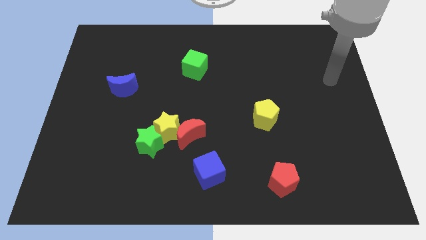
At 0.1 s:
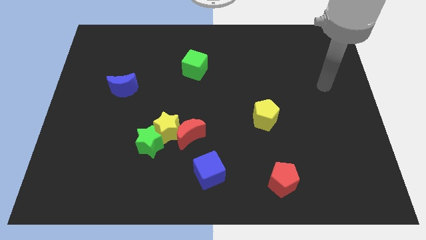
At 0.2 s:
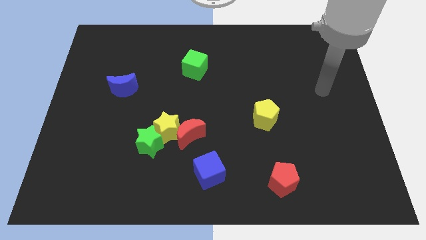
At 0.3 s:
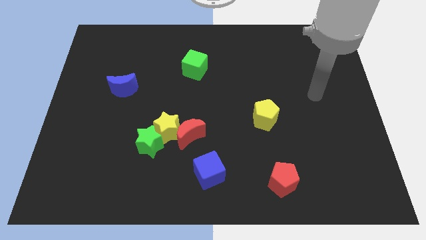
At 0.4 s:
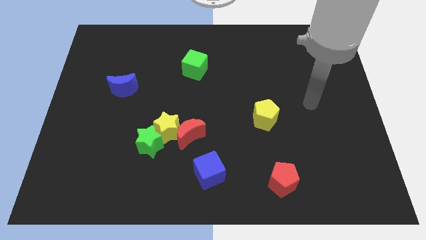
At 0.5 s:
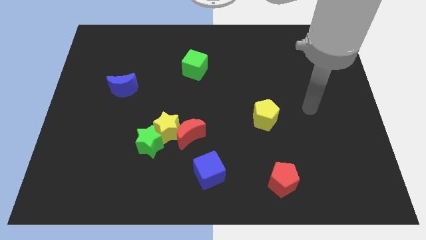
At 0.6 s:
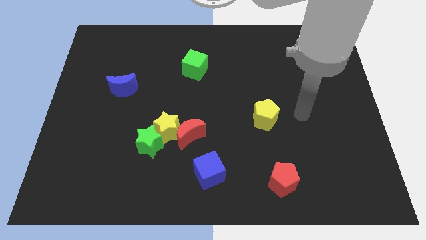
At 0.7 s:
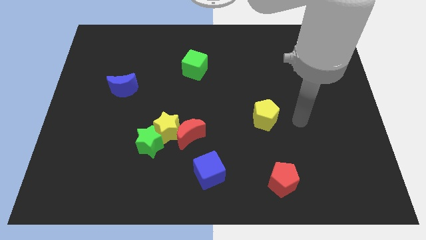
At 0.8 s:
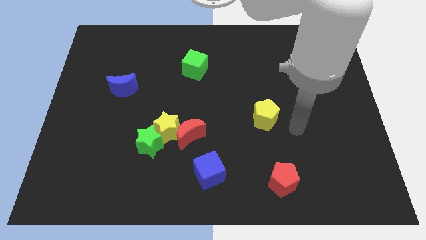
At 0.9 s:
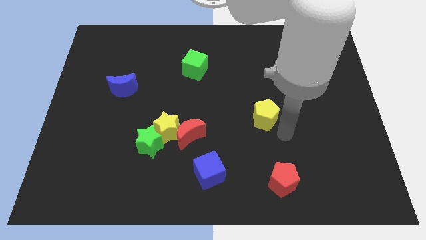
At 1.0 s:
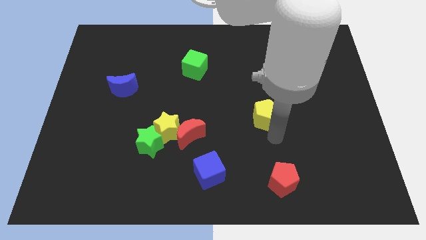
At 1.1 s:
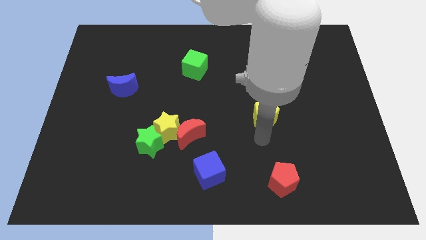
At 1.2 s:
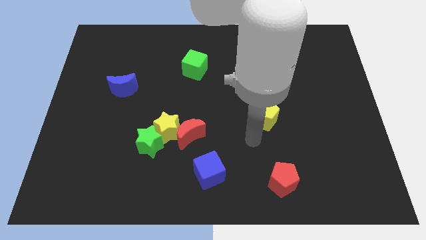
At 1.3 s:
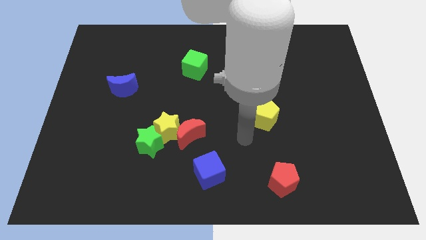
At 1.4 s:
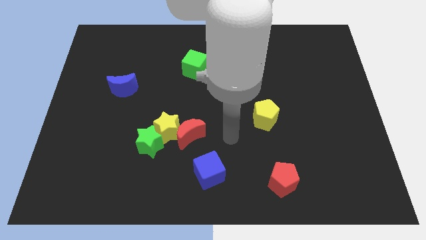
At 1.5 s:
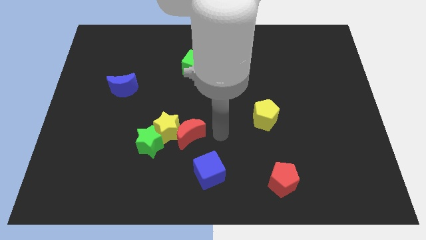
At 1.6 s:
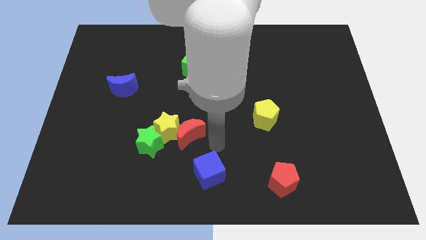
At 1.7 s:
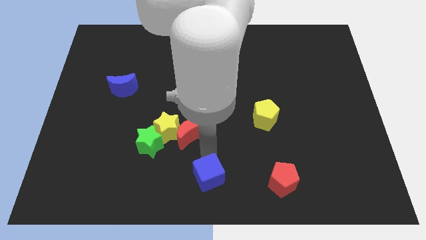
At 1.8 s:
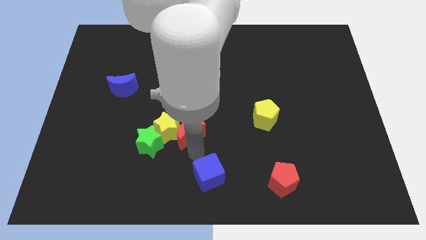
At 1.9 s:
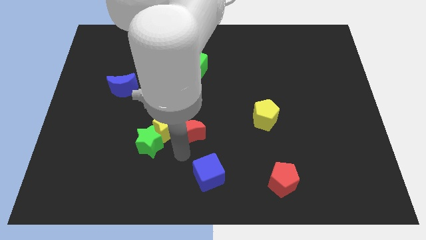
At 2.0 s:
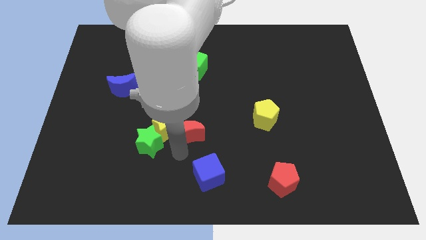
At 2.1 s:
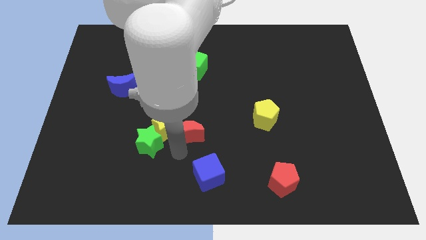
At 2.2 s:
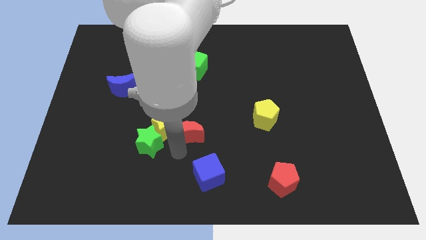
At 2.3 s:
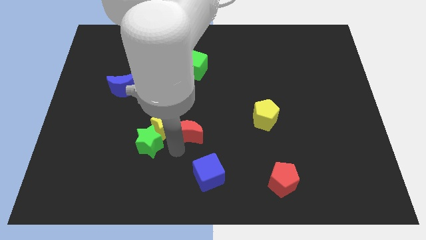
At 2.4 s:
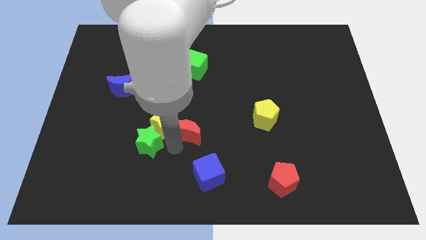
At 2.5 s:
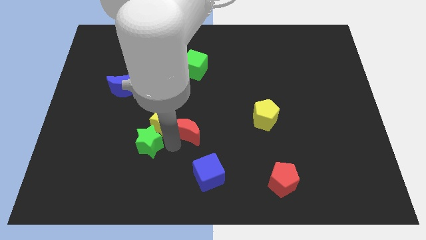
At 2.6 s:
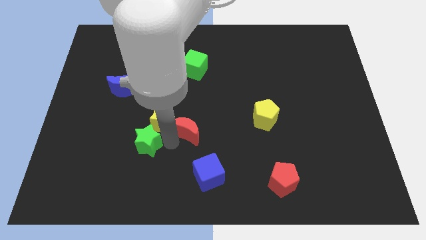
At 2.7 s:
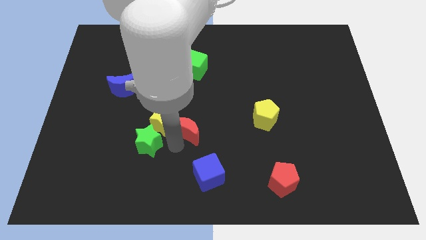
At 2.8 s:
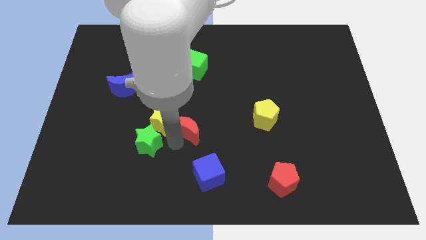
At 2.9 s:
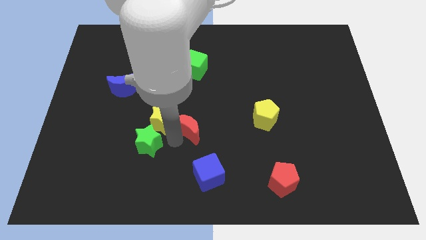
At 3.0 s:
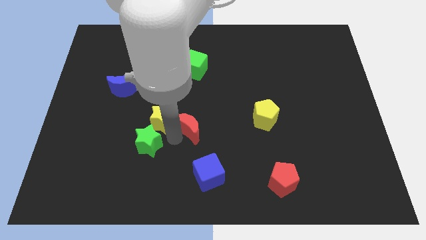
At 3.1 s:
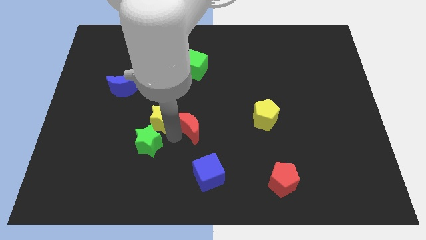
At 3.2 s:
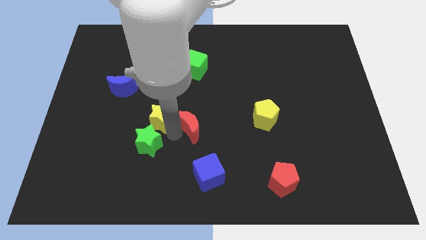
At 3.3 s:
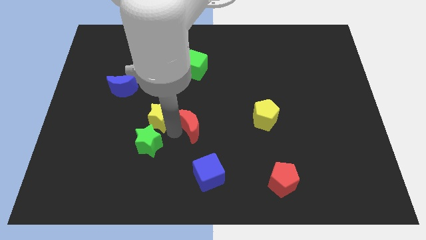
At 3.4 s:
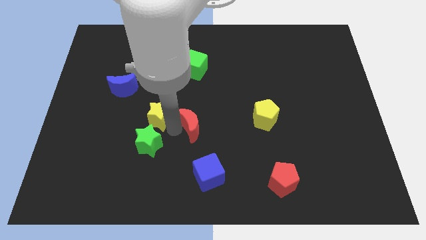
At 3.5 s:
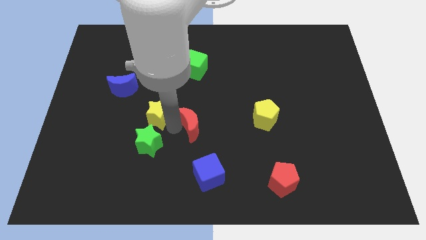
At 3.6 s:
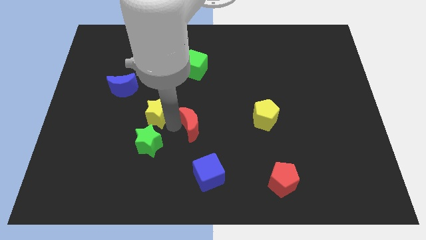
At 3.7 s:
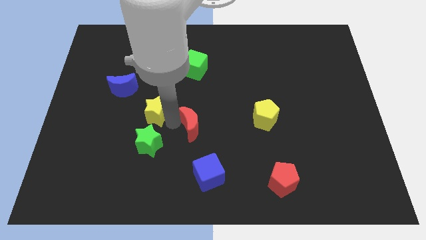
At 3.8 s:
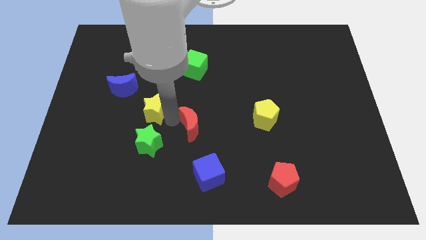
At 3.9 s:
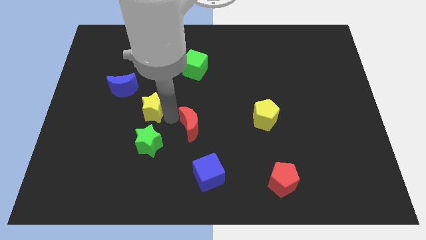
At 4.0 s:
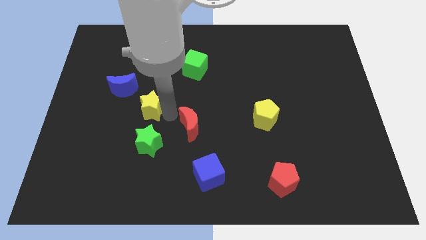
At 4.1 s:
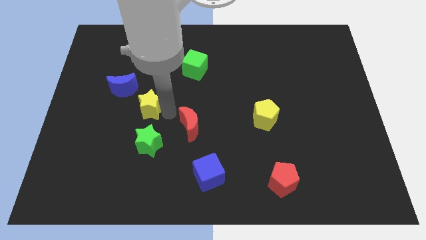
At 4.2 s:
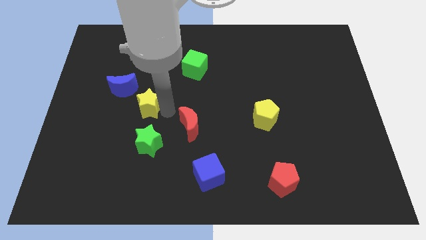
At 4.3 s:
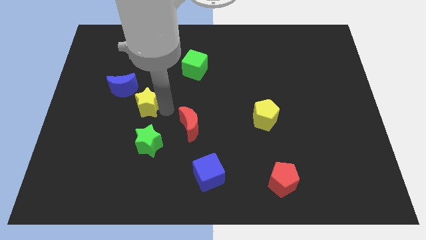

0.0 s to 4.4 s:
move the yellow star away from the red moon and green star

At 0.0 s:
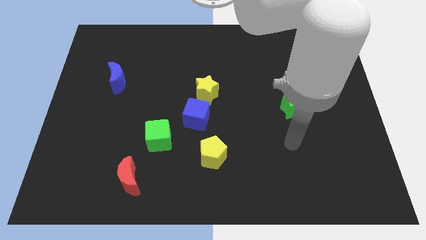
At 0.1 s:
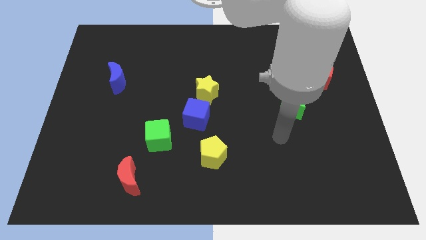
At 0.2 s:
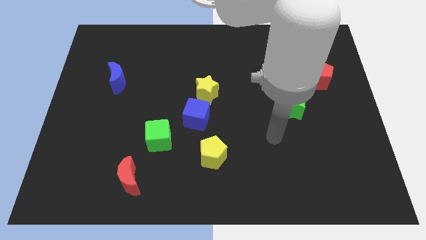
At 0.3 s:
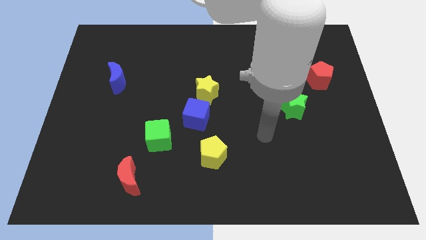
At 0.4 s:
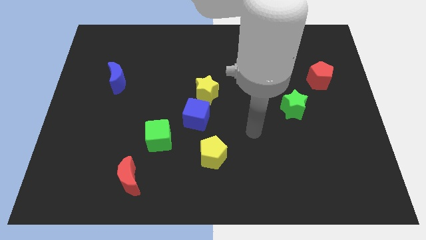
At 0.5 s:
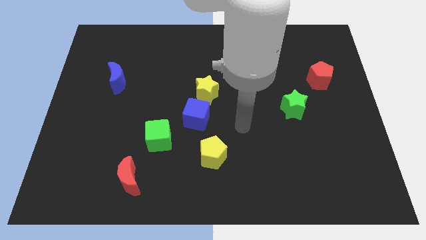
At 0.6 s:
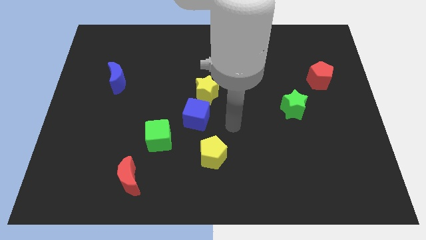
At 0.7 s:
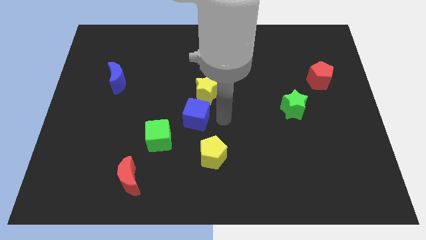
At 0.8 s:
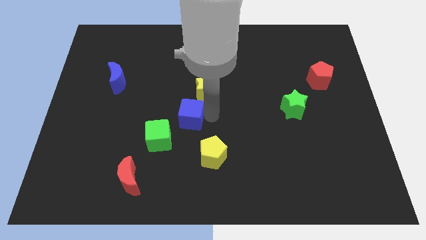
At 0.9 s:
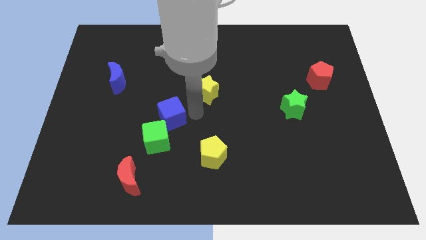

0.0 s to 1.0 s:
pull the yellow star apart from the blue cube

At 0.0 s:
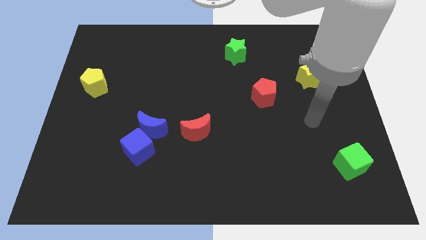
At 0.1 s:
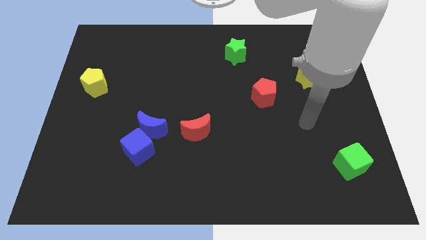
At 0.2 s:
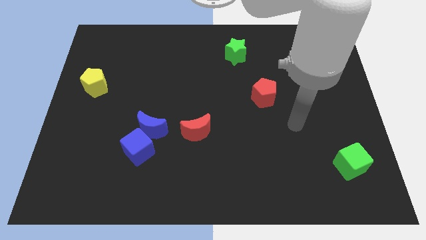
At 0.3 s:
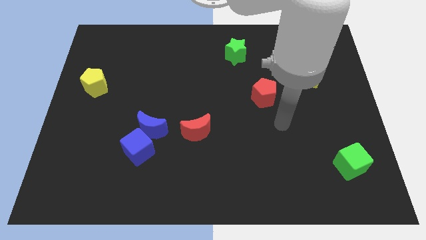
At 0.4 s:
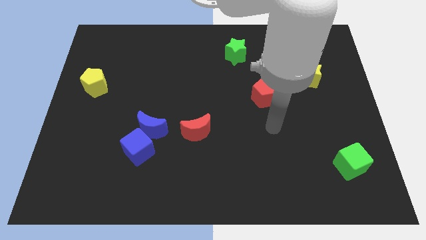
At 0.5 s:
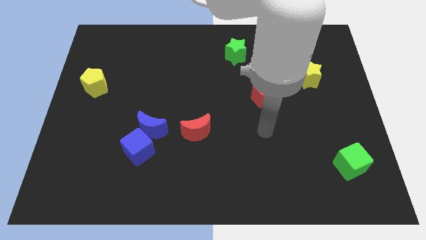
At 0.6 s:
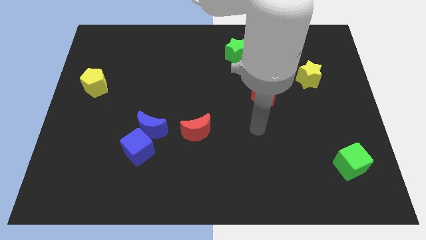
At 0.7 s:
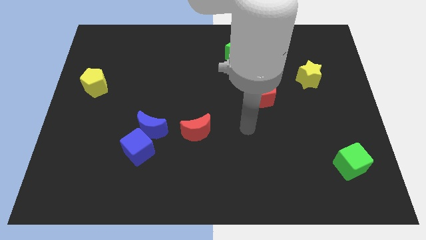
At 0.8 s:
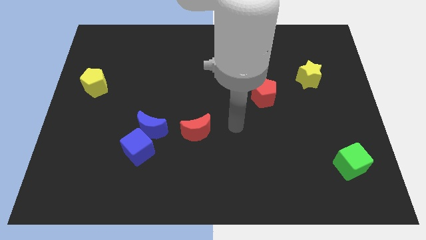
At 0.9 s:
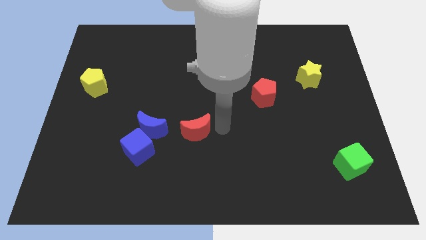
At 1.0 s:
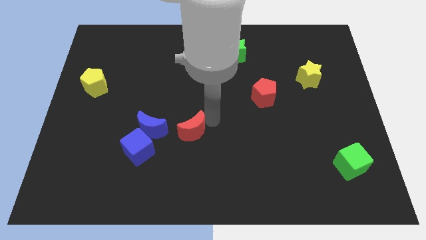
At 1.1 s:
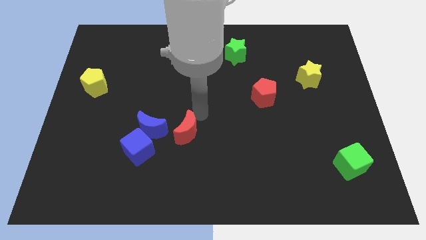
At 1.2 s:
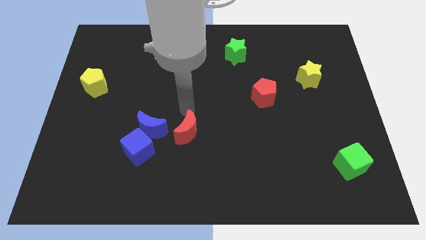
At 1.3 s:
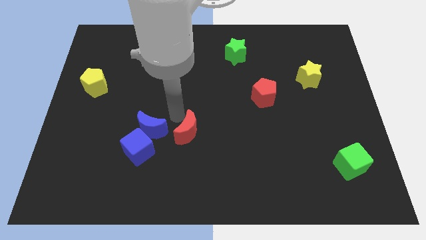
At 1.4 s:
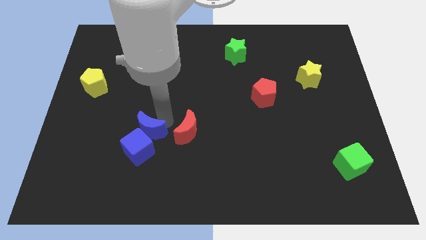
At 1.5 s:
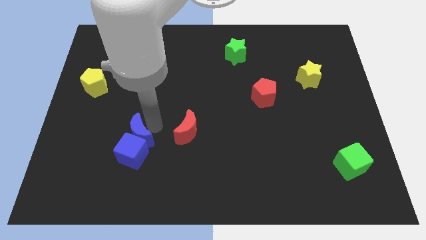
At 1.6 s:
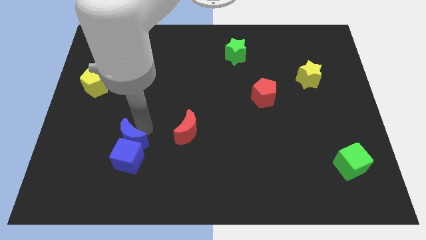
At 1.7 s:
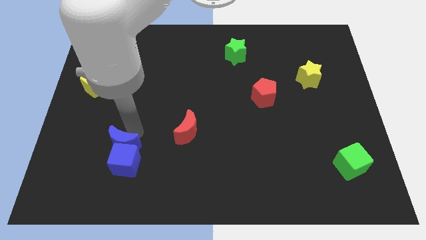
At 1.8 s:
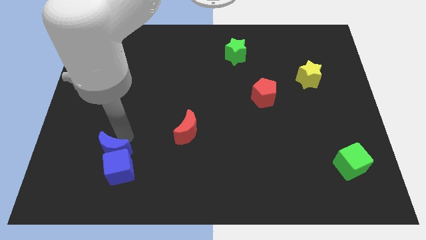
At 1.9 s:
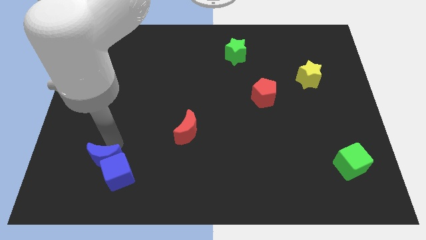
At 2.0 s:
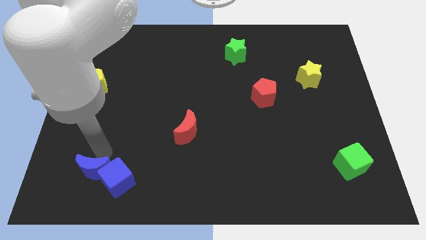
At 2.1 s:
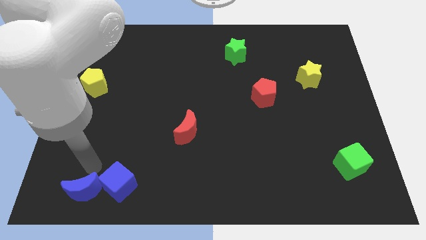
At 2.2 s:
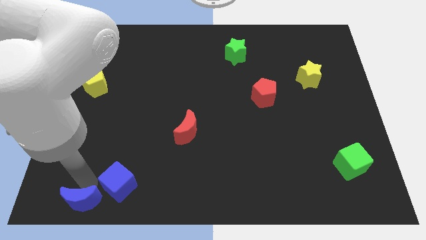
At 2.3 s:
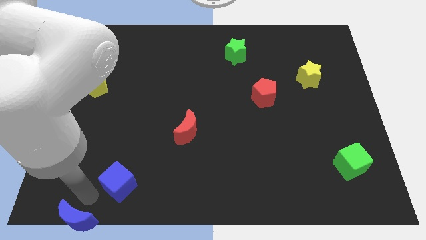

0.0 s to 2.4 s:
move the blue cube away from the blue moon

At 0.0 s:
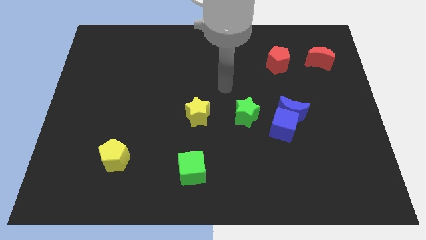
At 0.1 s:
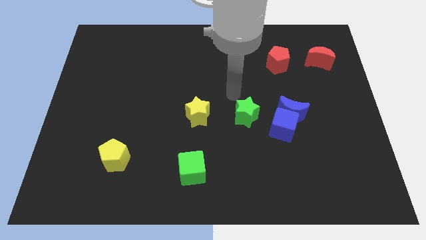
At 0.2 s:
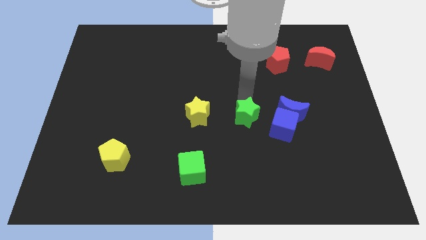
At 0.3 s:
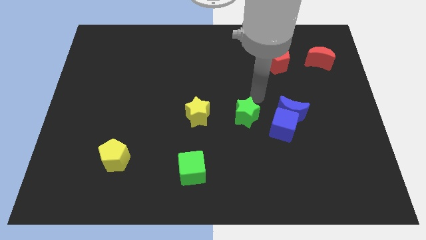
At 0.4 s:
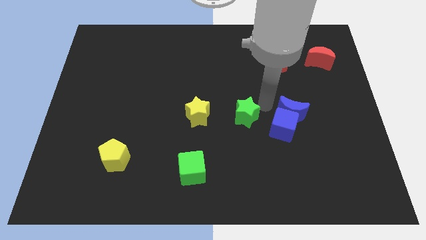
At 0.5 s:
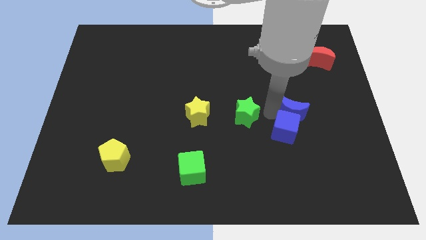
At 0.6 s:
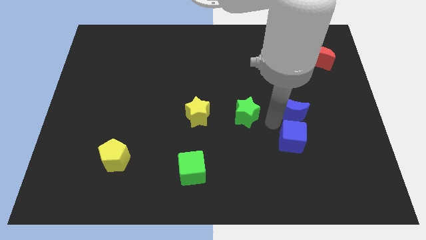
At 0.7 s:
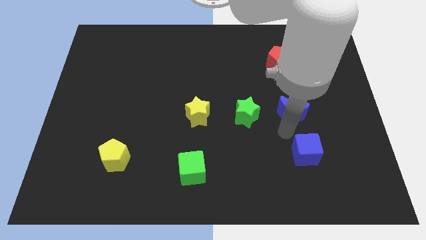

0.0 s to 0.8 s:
separate the blue moon from the blue cube

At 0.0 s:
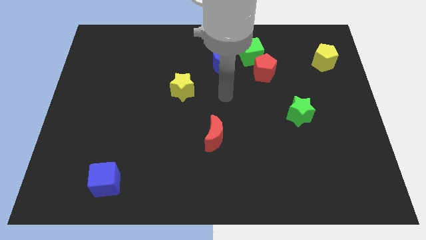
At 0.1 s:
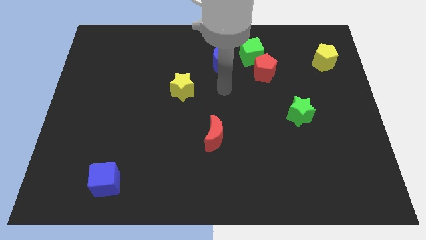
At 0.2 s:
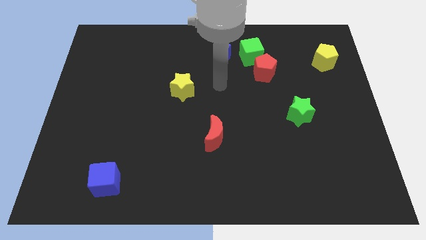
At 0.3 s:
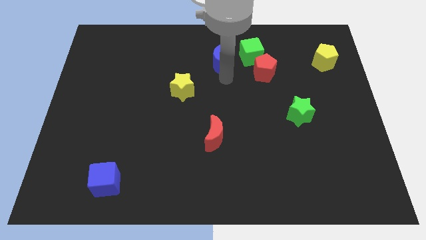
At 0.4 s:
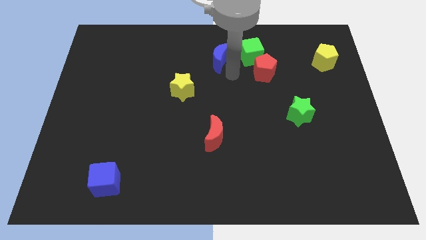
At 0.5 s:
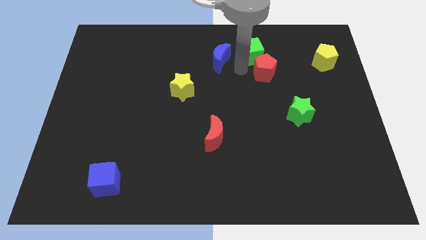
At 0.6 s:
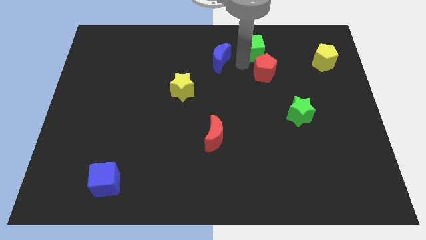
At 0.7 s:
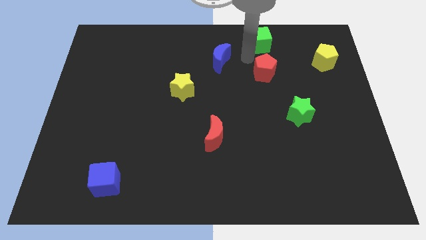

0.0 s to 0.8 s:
pull the red pentagon apart from the green cube
